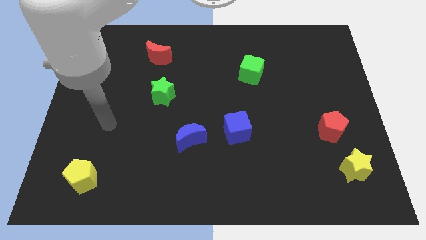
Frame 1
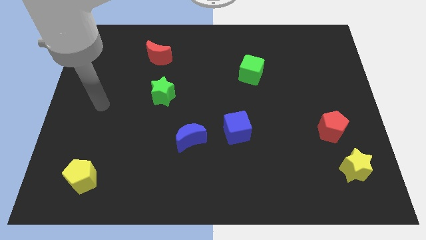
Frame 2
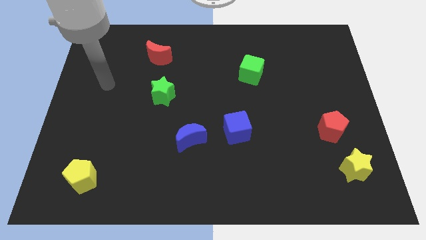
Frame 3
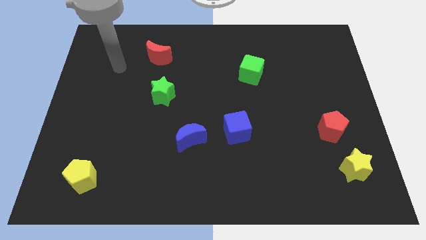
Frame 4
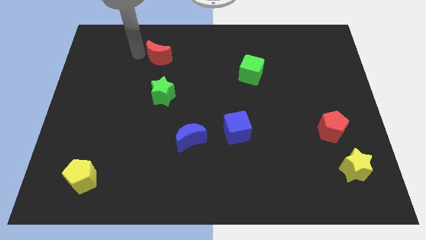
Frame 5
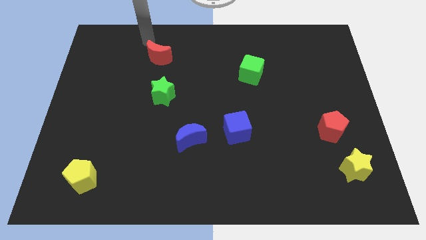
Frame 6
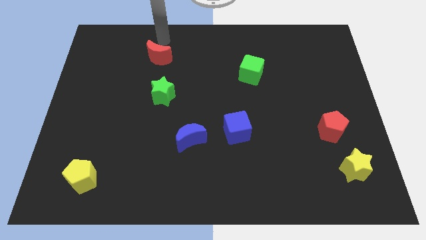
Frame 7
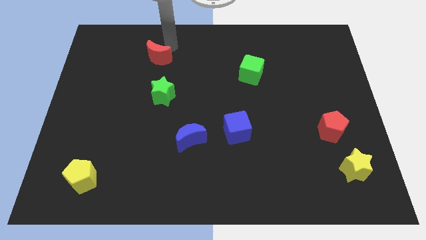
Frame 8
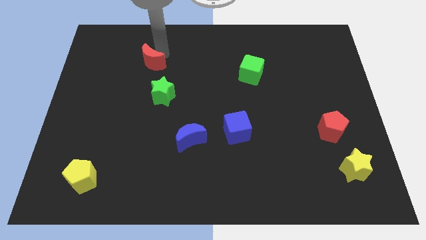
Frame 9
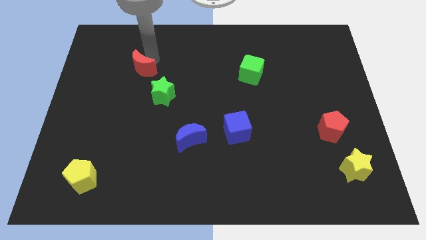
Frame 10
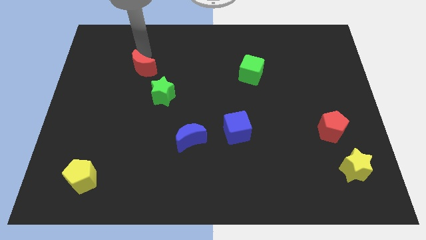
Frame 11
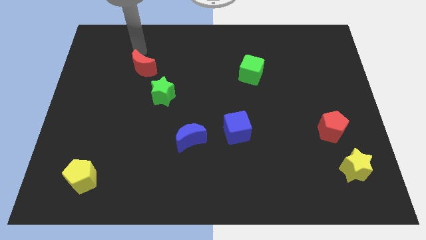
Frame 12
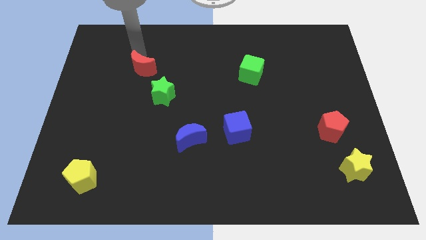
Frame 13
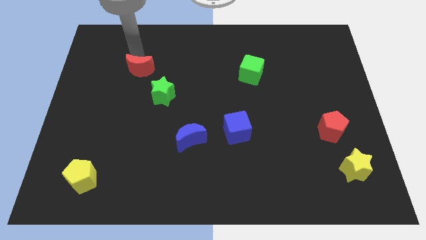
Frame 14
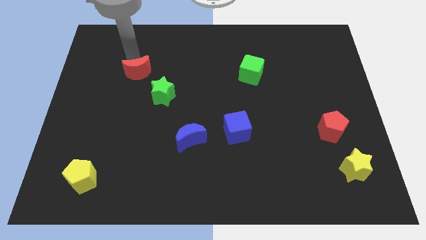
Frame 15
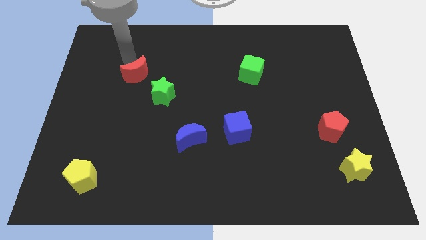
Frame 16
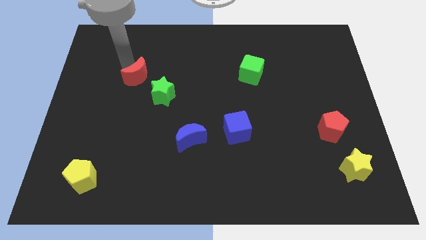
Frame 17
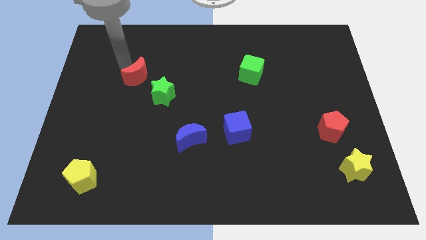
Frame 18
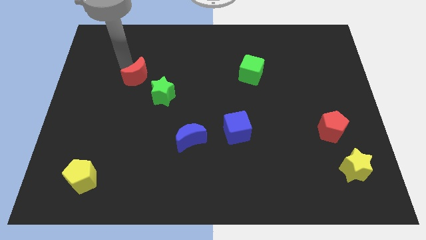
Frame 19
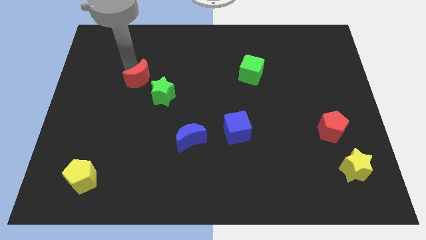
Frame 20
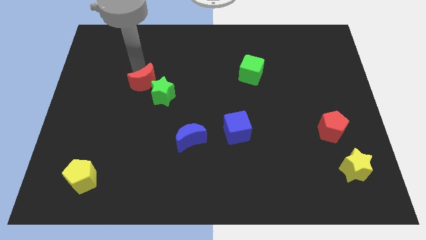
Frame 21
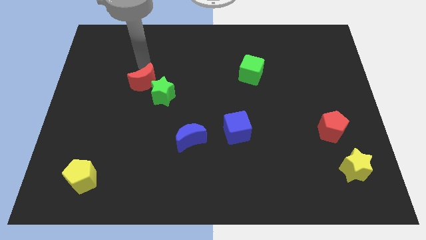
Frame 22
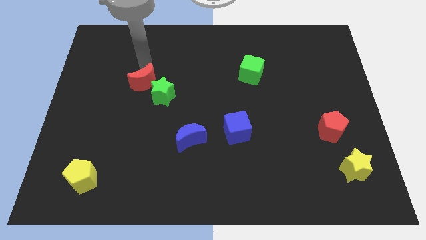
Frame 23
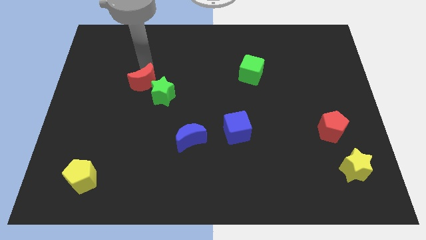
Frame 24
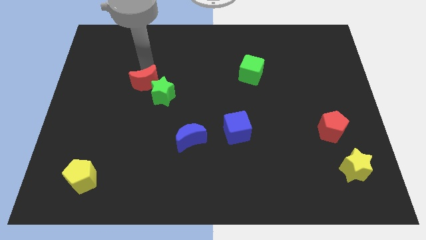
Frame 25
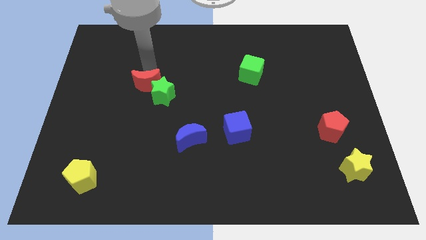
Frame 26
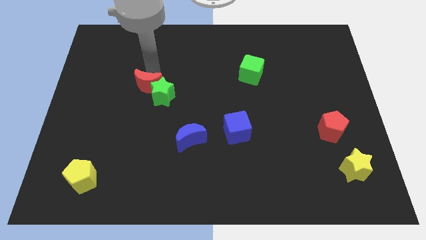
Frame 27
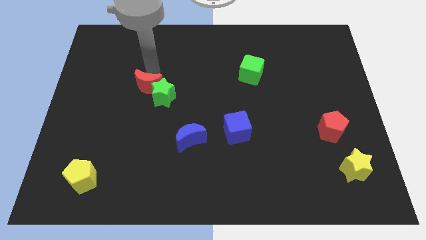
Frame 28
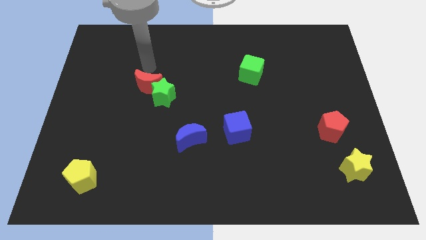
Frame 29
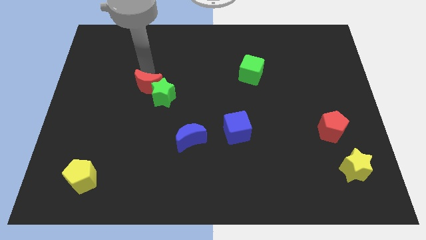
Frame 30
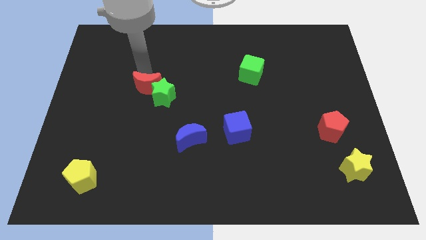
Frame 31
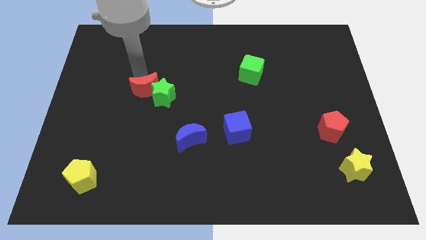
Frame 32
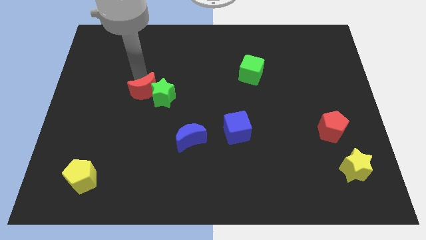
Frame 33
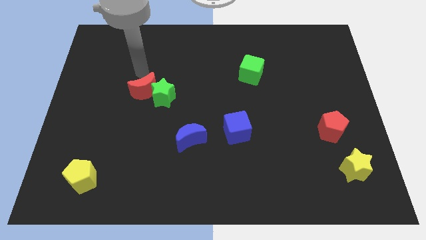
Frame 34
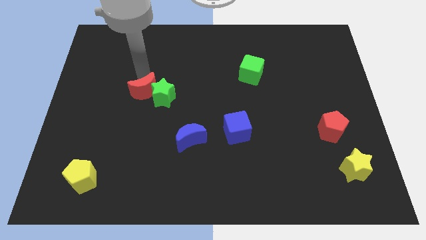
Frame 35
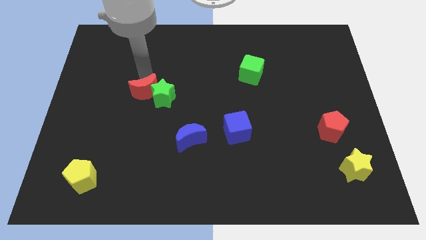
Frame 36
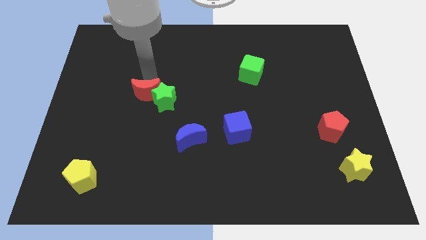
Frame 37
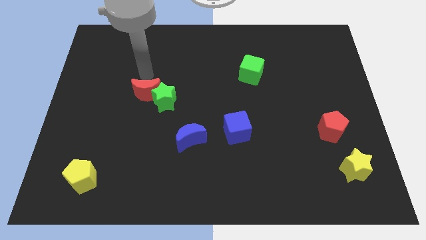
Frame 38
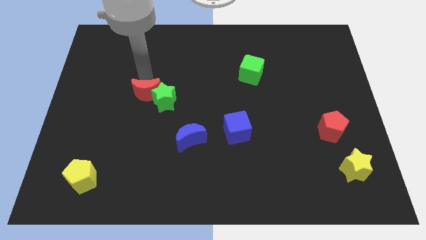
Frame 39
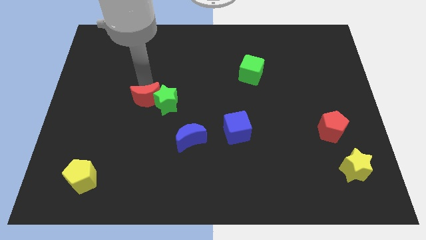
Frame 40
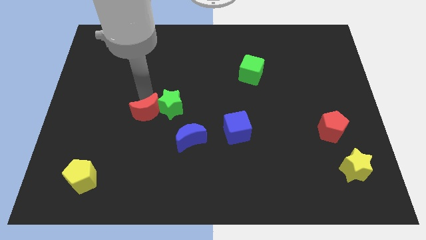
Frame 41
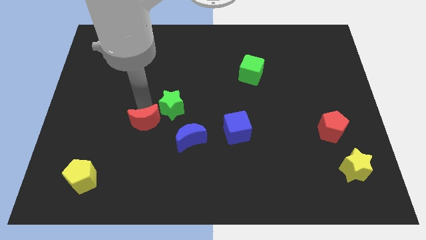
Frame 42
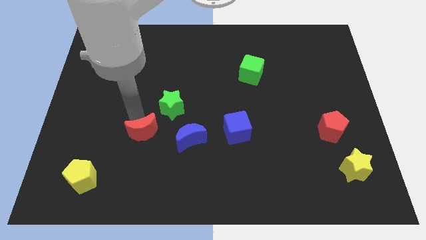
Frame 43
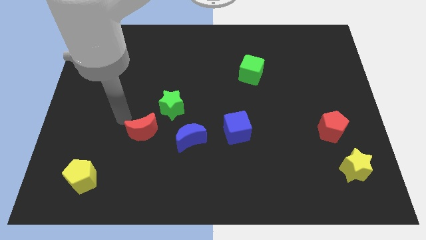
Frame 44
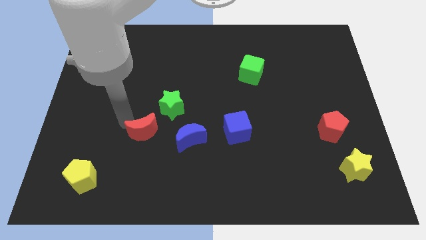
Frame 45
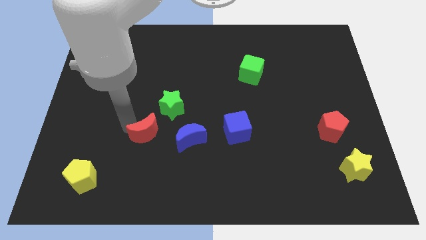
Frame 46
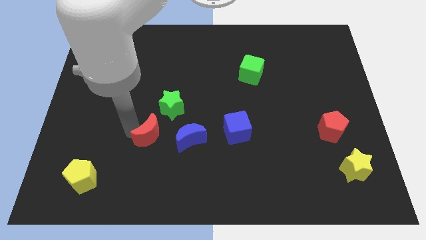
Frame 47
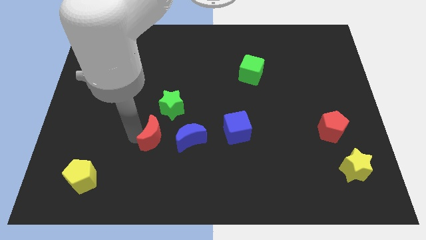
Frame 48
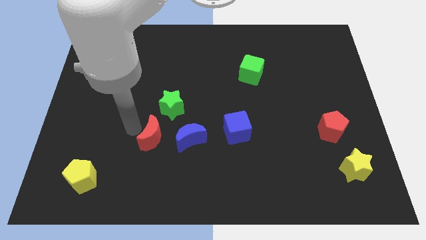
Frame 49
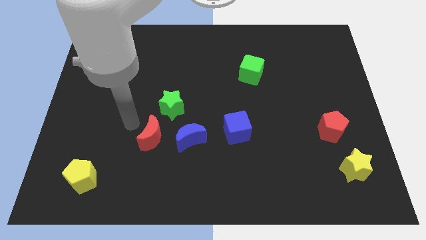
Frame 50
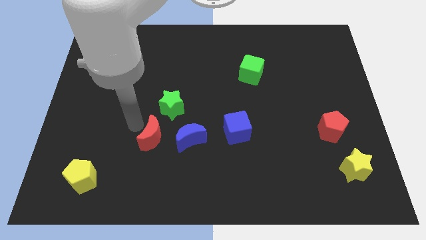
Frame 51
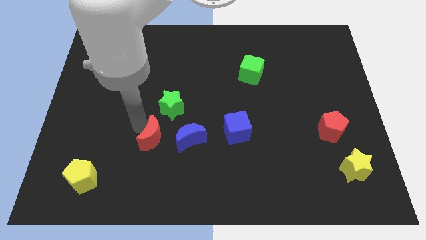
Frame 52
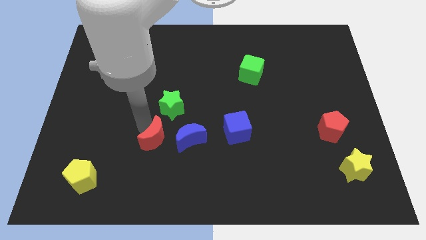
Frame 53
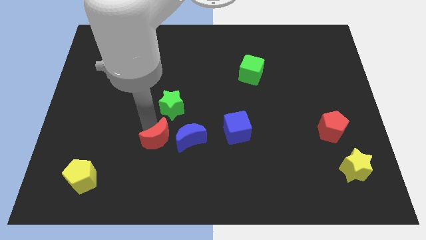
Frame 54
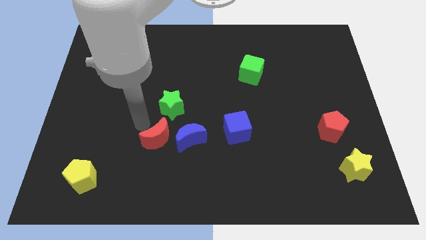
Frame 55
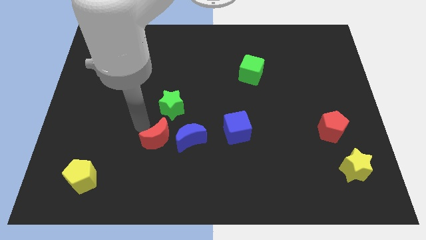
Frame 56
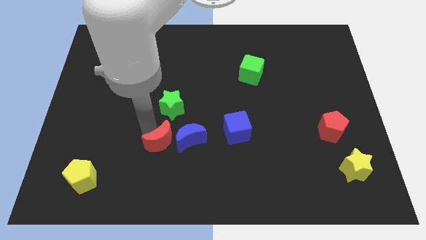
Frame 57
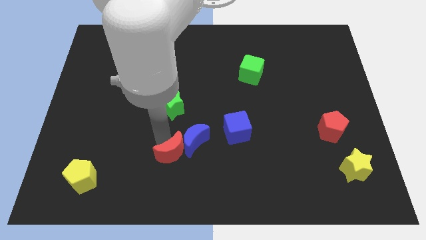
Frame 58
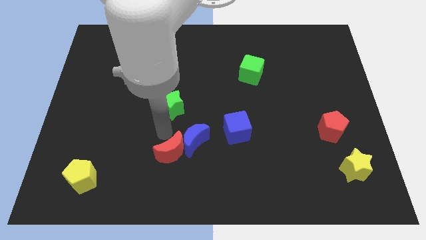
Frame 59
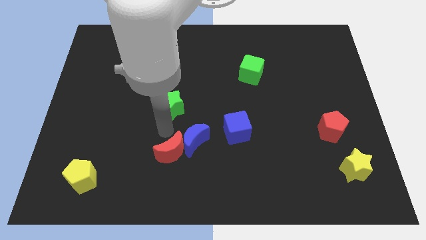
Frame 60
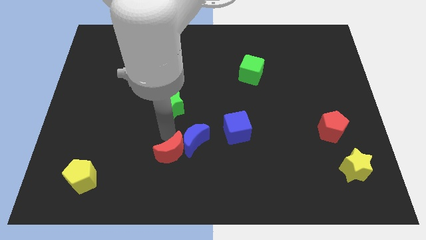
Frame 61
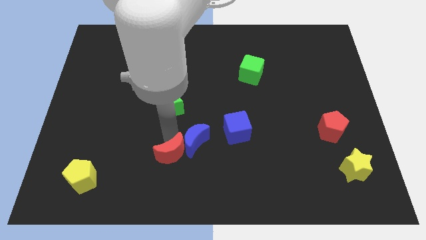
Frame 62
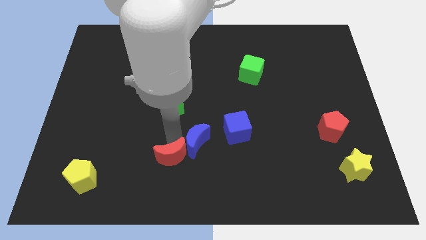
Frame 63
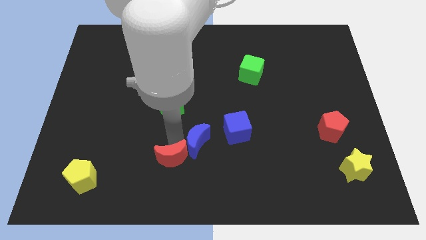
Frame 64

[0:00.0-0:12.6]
put the red moon to the bottom side of the blue moon

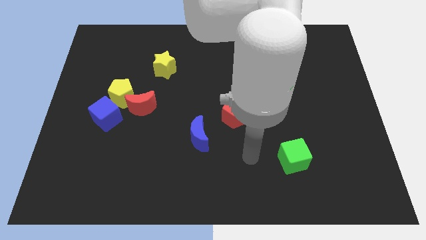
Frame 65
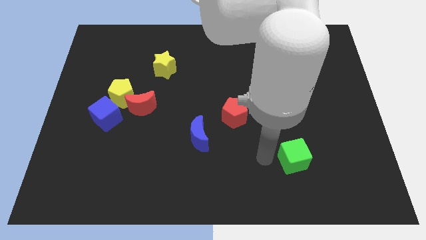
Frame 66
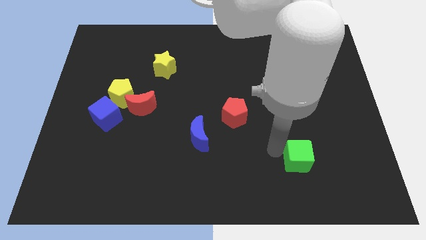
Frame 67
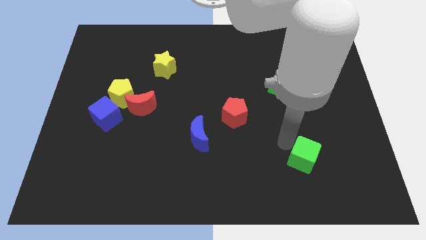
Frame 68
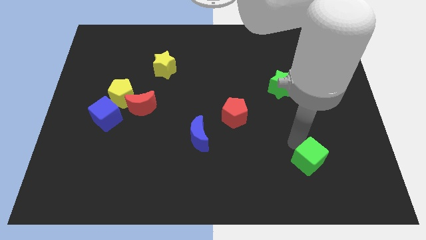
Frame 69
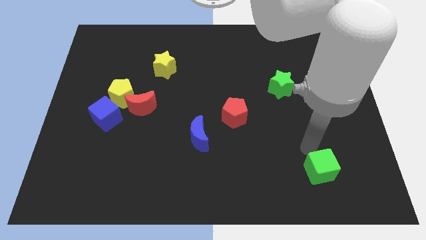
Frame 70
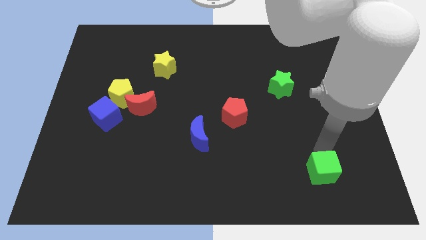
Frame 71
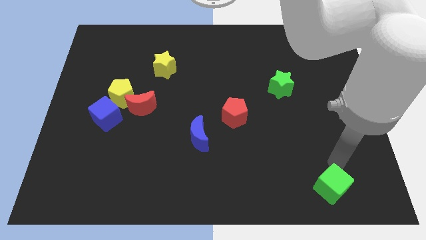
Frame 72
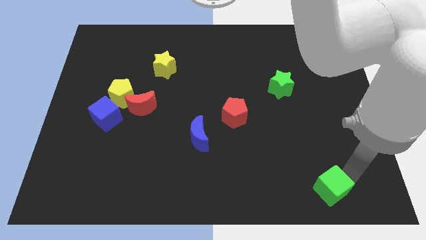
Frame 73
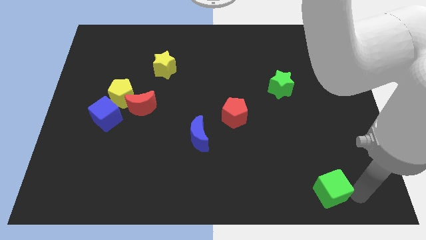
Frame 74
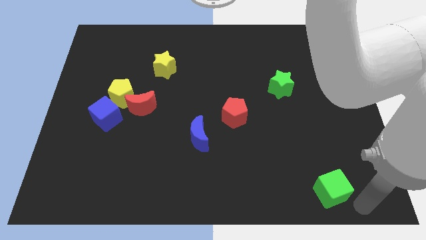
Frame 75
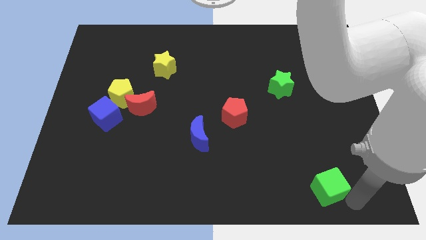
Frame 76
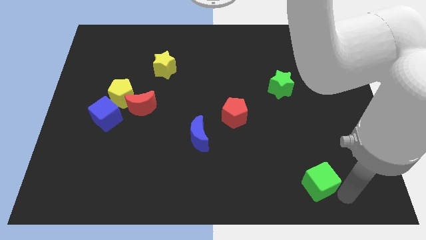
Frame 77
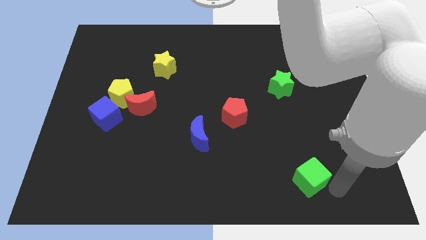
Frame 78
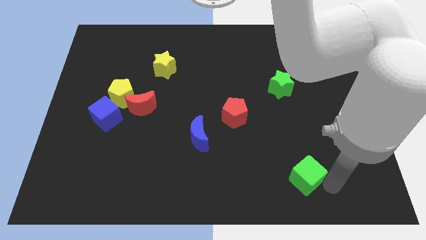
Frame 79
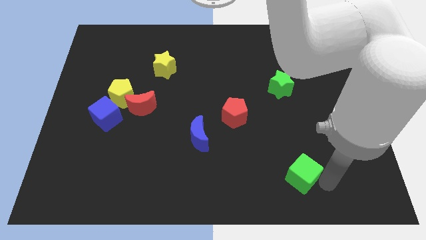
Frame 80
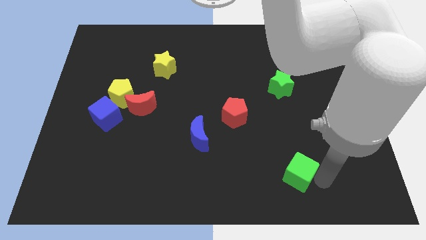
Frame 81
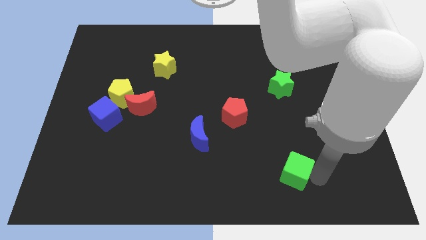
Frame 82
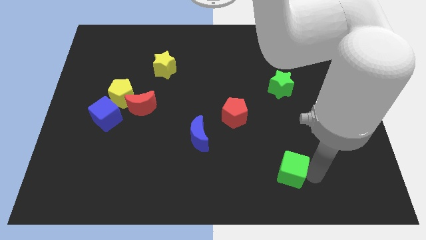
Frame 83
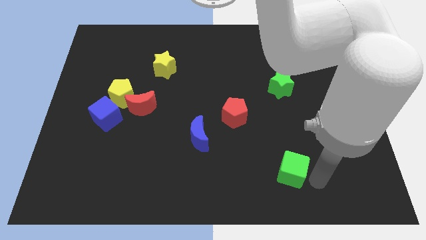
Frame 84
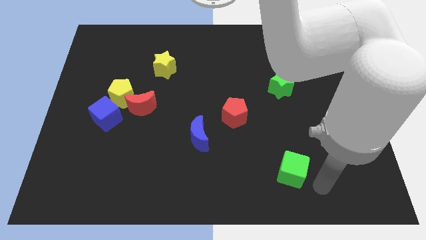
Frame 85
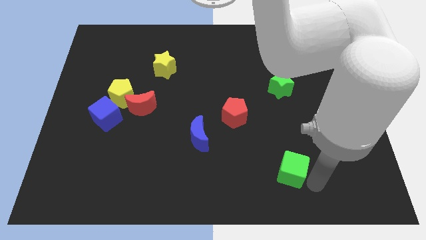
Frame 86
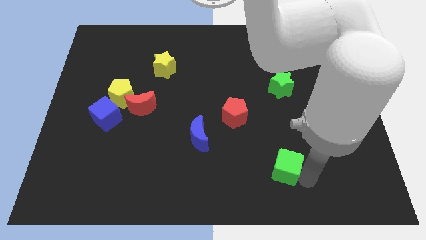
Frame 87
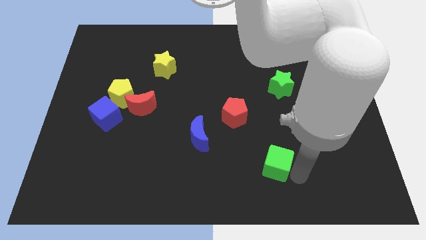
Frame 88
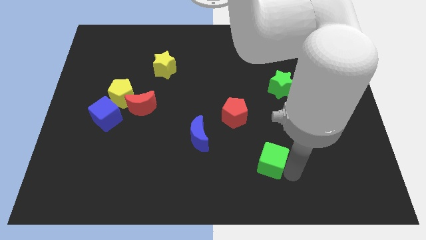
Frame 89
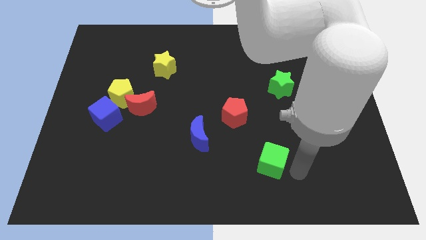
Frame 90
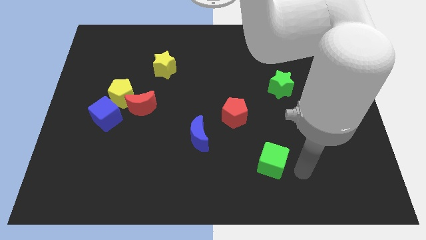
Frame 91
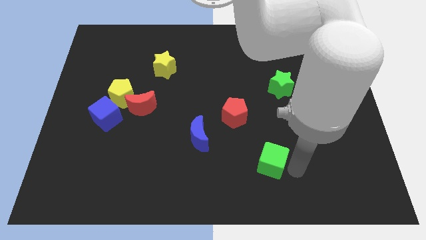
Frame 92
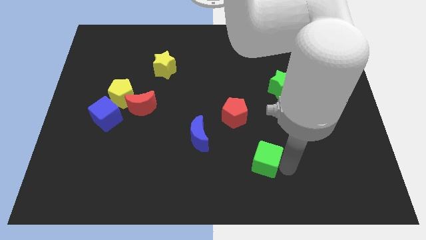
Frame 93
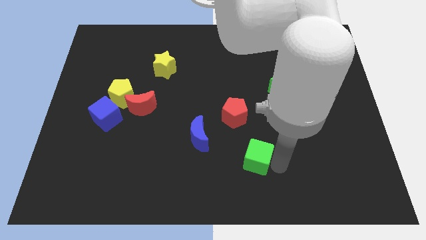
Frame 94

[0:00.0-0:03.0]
put the green cube to the bottom side of the red pentagon
